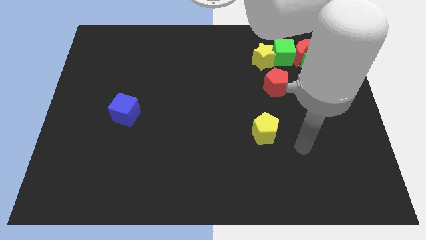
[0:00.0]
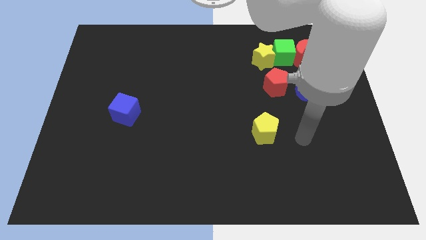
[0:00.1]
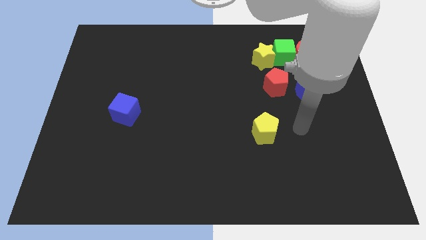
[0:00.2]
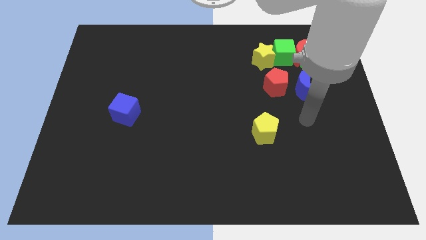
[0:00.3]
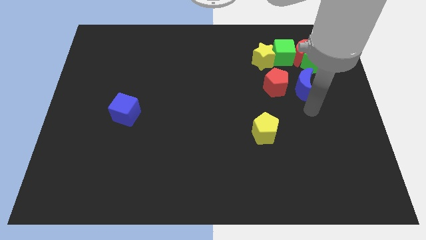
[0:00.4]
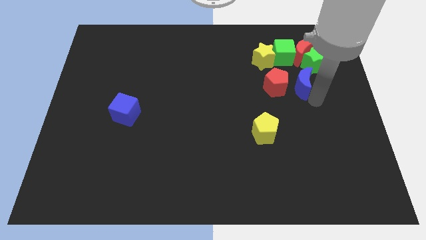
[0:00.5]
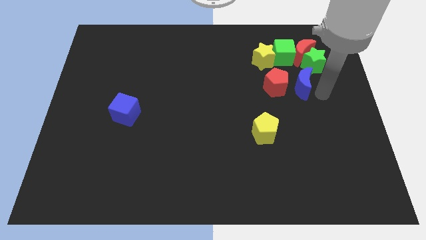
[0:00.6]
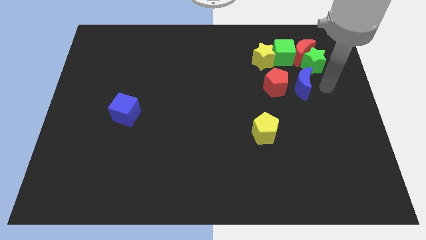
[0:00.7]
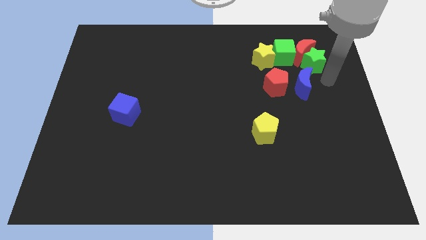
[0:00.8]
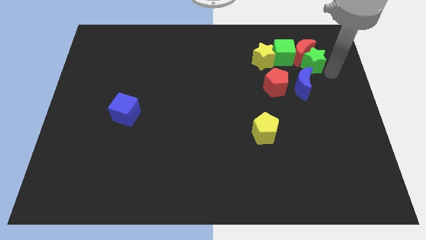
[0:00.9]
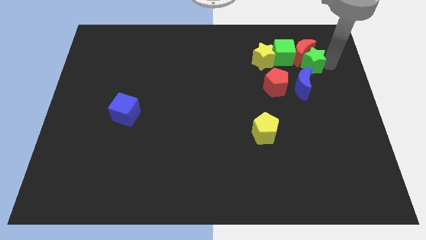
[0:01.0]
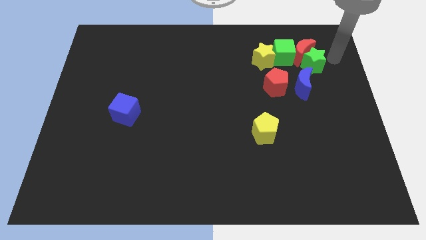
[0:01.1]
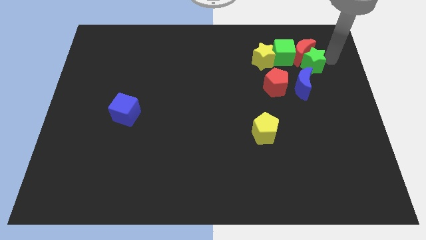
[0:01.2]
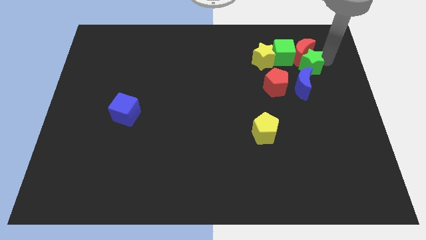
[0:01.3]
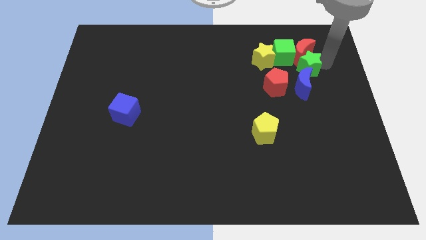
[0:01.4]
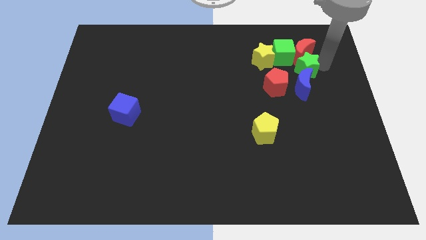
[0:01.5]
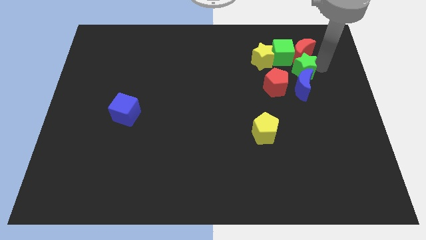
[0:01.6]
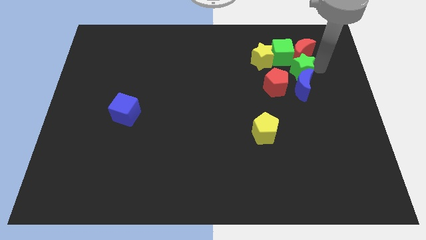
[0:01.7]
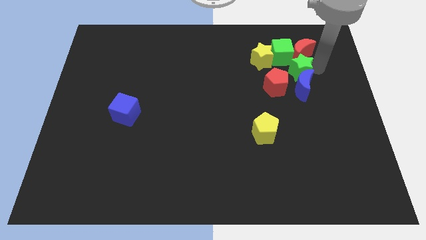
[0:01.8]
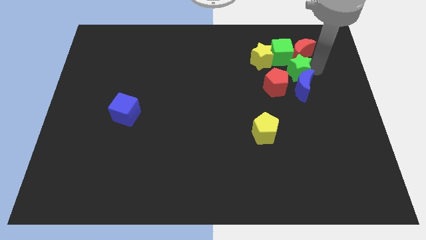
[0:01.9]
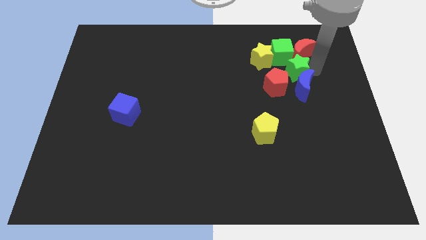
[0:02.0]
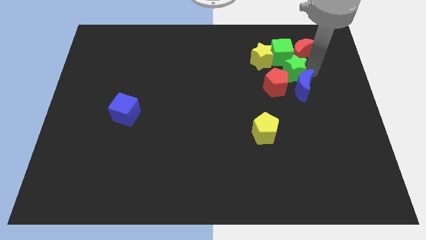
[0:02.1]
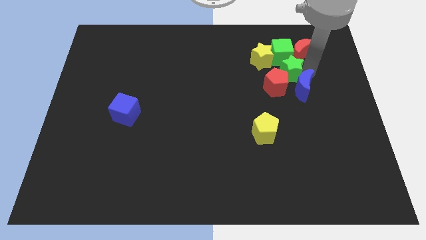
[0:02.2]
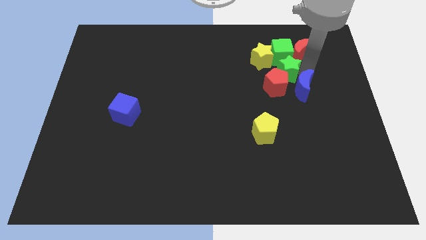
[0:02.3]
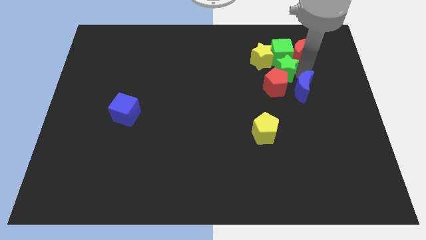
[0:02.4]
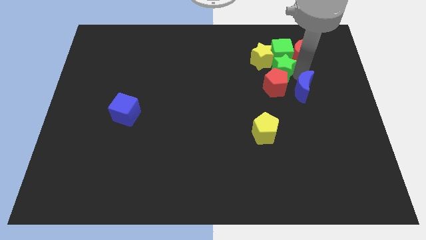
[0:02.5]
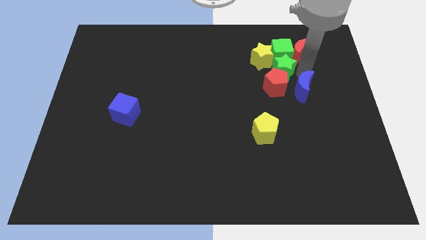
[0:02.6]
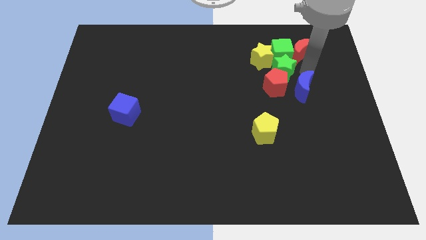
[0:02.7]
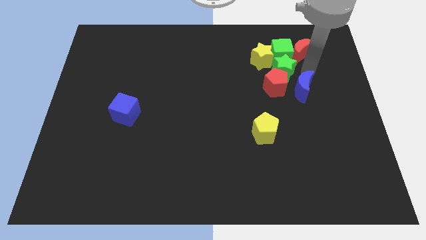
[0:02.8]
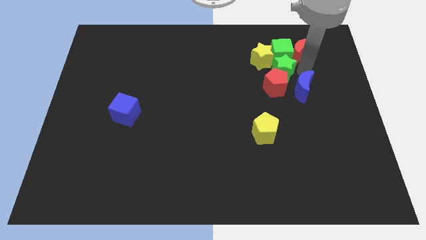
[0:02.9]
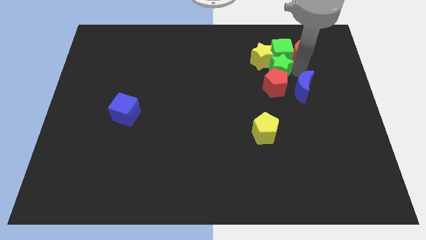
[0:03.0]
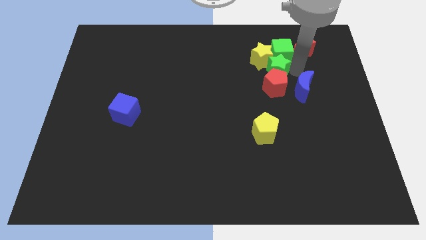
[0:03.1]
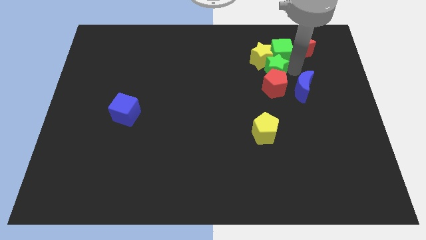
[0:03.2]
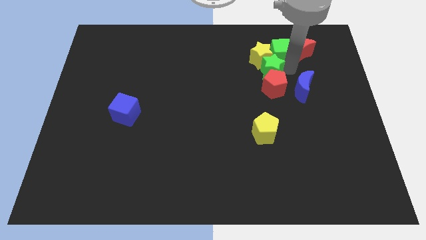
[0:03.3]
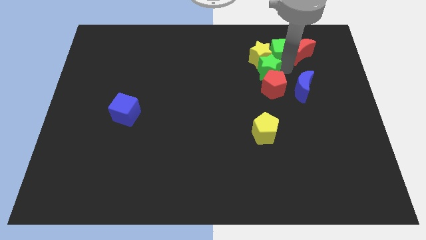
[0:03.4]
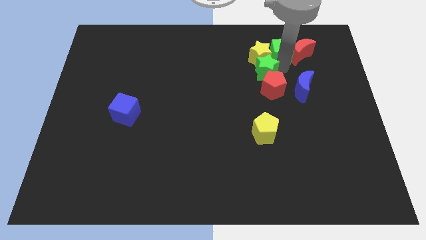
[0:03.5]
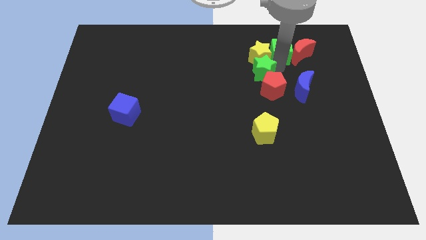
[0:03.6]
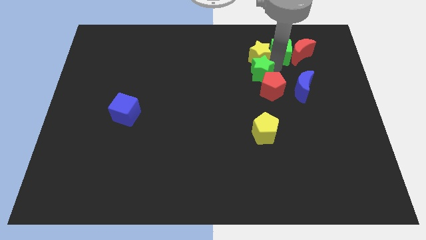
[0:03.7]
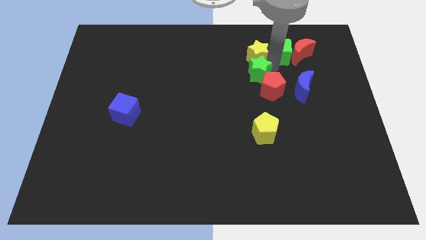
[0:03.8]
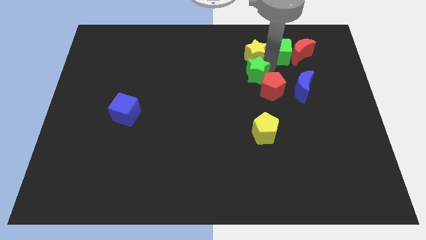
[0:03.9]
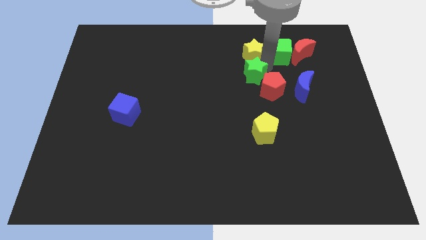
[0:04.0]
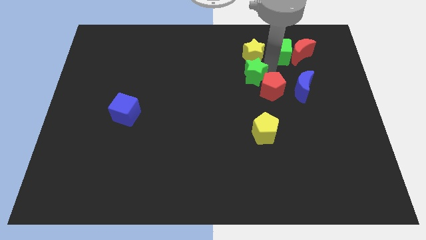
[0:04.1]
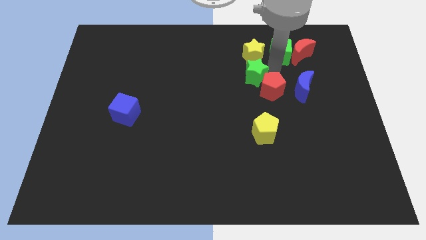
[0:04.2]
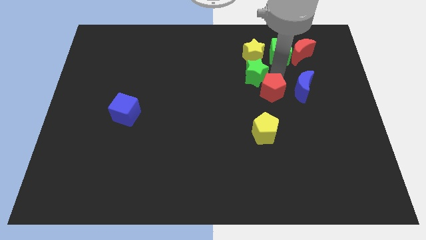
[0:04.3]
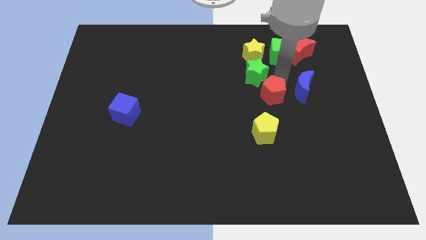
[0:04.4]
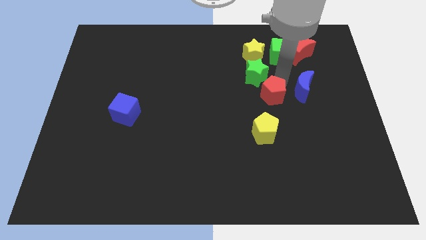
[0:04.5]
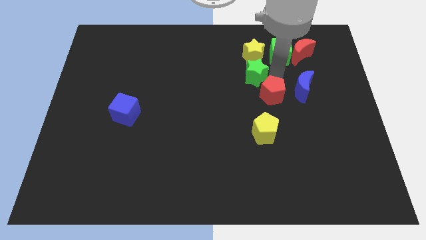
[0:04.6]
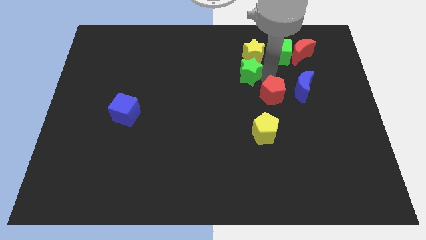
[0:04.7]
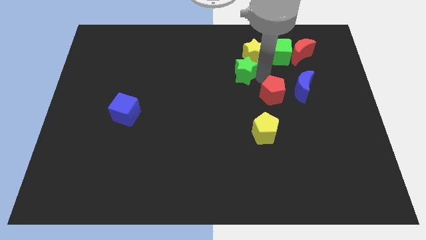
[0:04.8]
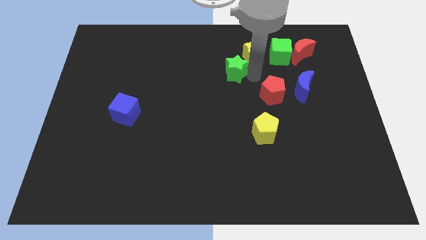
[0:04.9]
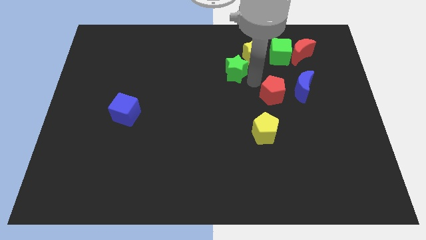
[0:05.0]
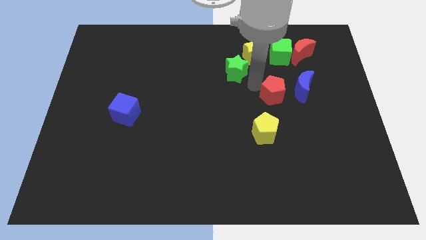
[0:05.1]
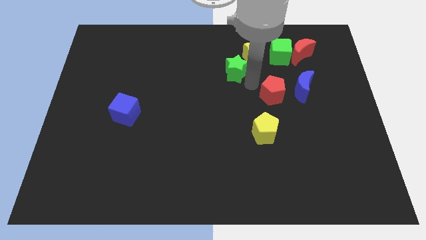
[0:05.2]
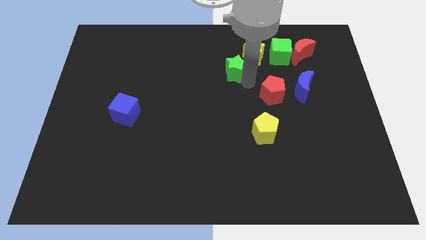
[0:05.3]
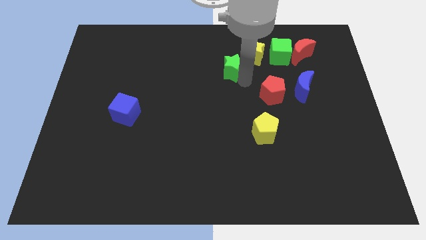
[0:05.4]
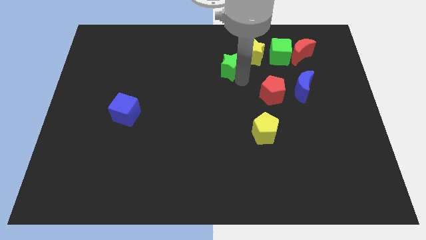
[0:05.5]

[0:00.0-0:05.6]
slide the green star to the left of the yellow star

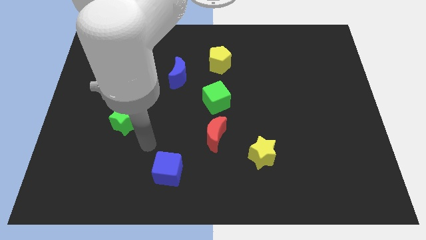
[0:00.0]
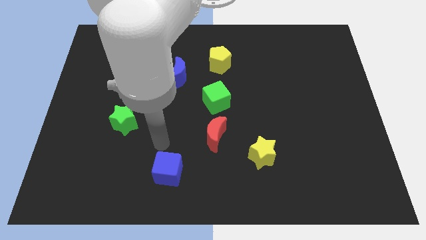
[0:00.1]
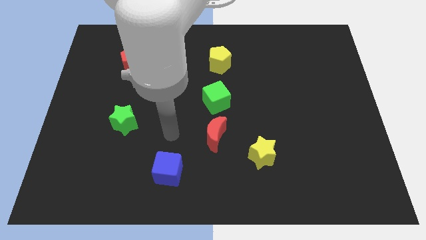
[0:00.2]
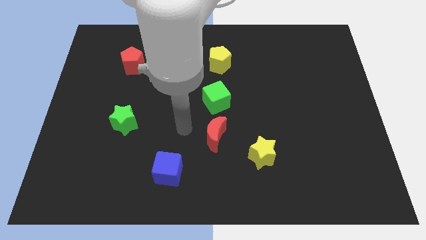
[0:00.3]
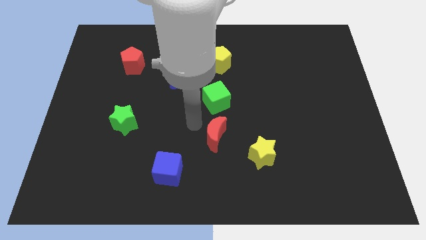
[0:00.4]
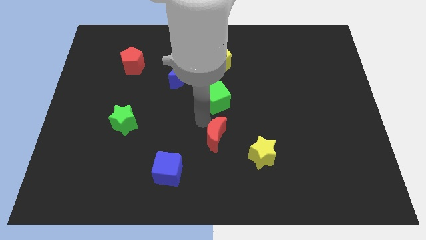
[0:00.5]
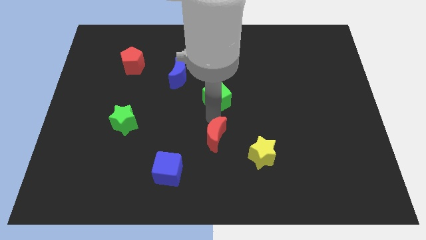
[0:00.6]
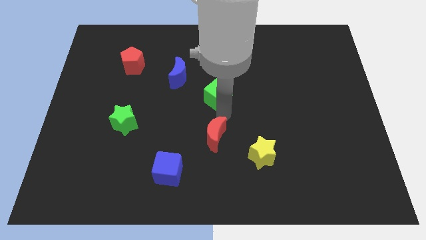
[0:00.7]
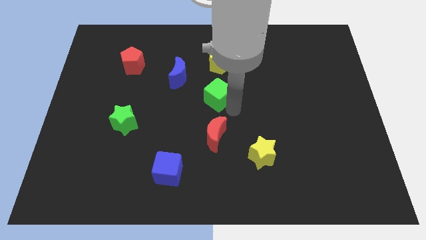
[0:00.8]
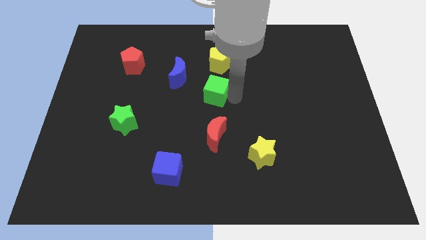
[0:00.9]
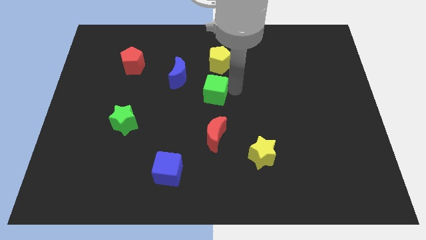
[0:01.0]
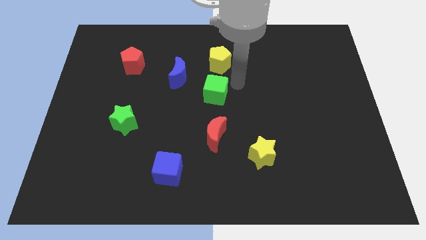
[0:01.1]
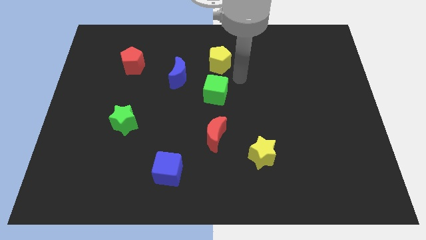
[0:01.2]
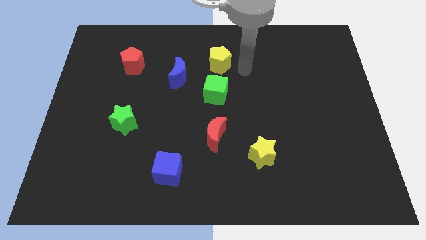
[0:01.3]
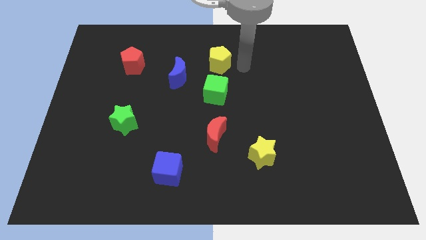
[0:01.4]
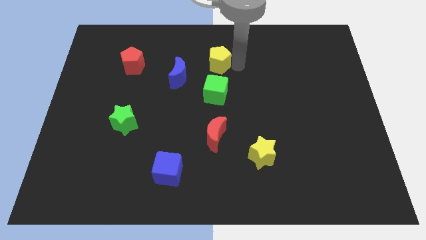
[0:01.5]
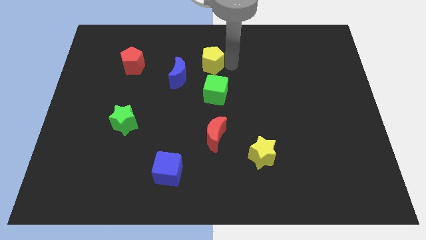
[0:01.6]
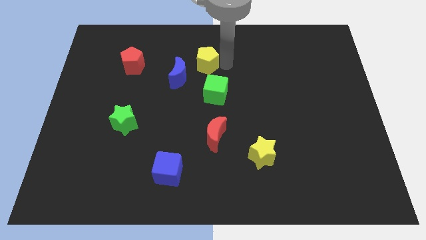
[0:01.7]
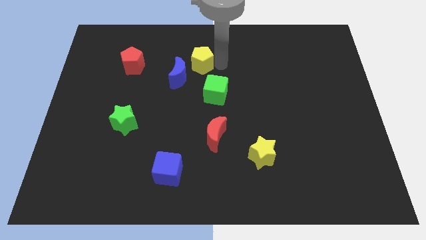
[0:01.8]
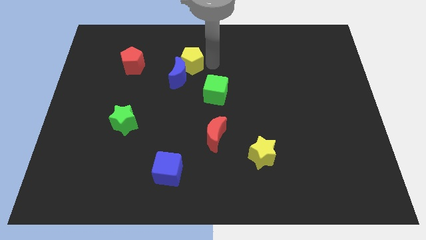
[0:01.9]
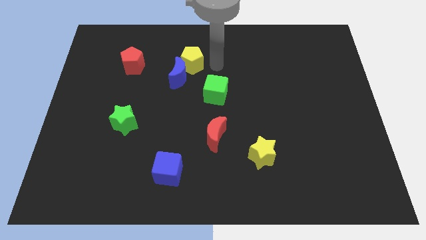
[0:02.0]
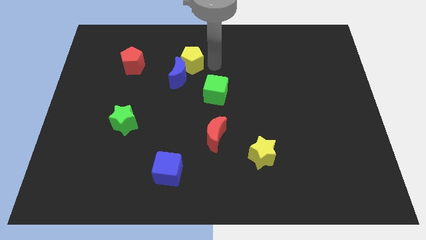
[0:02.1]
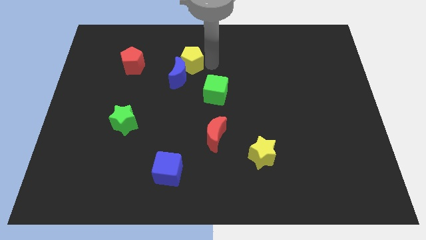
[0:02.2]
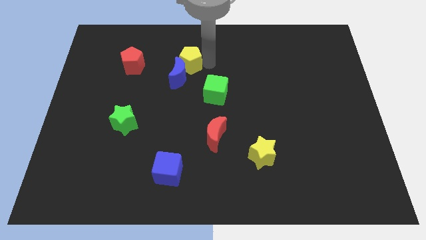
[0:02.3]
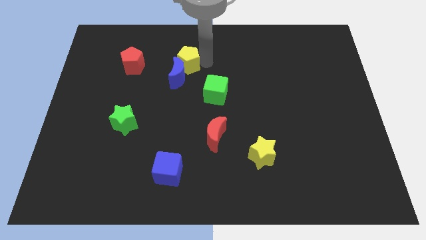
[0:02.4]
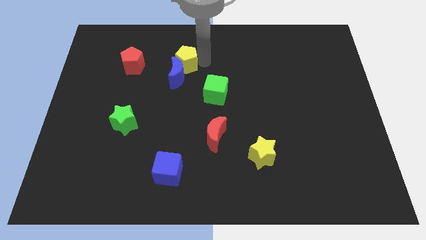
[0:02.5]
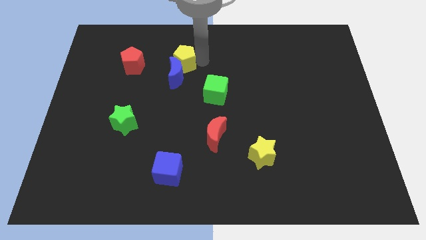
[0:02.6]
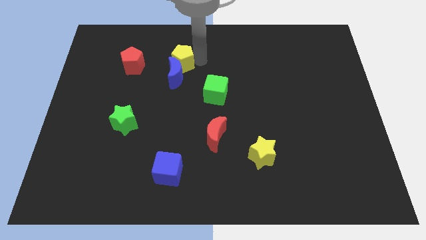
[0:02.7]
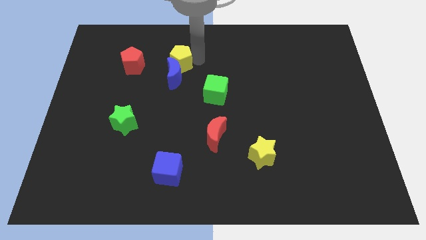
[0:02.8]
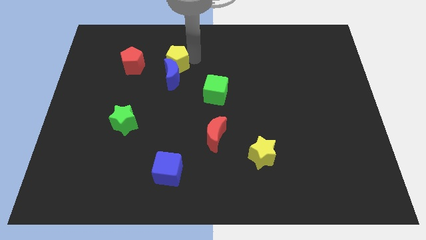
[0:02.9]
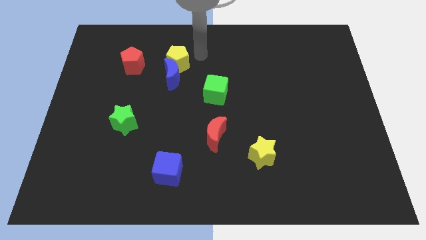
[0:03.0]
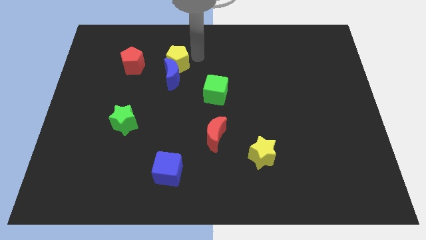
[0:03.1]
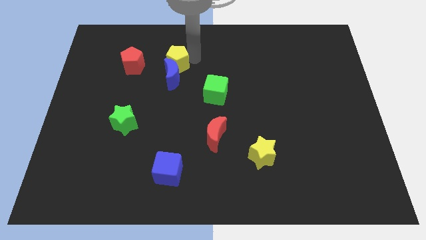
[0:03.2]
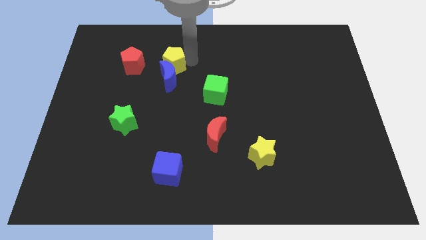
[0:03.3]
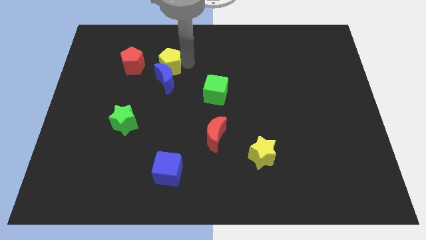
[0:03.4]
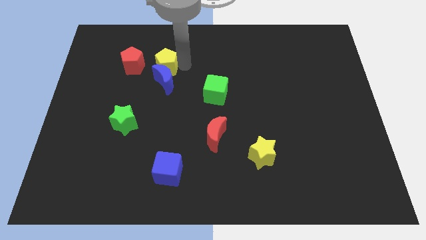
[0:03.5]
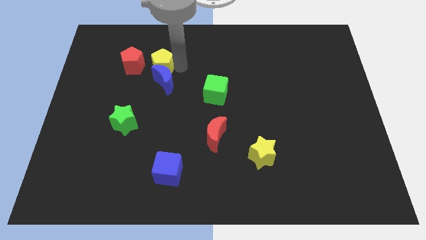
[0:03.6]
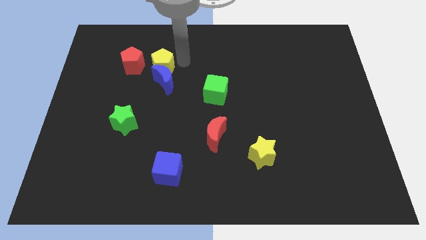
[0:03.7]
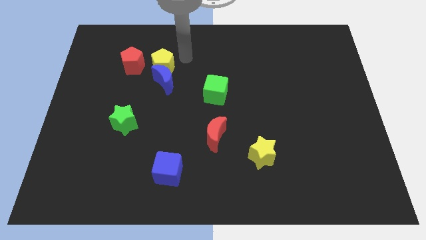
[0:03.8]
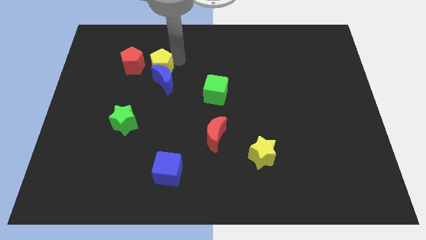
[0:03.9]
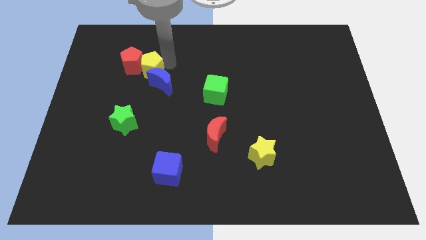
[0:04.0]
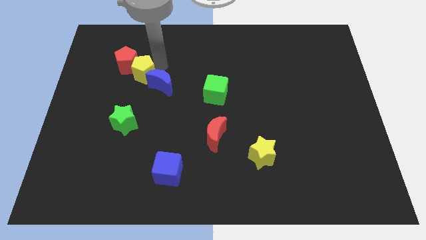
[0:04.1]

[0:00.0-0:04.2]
put the yellow pentagon to the left side of the blue moon
